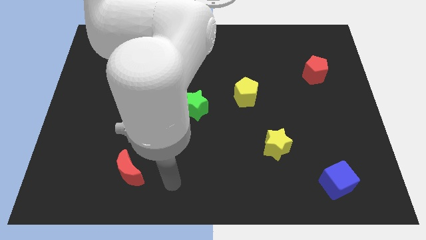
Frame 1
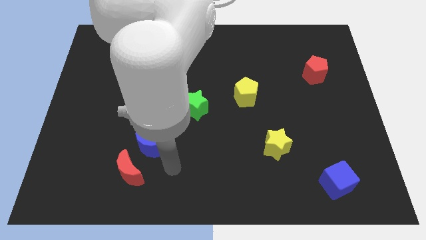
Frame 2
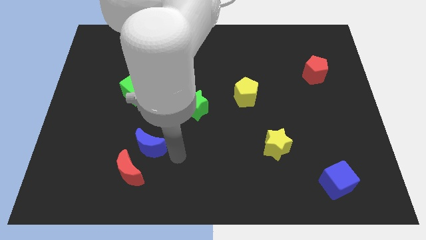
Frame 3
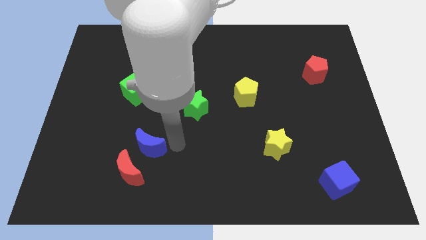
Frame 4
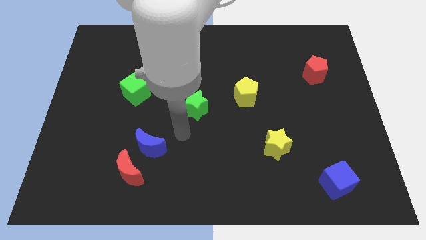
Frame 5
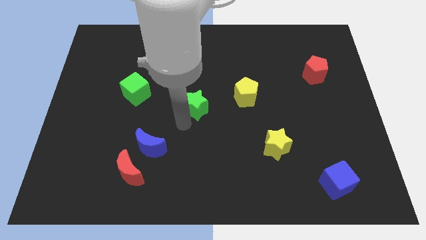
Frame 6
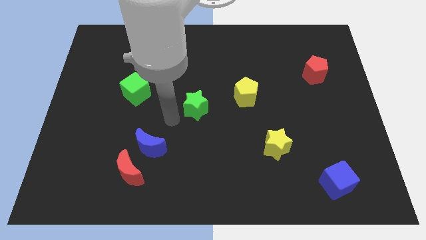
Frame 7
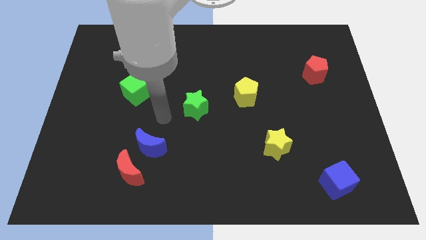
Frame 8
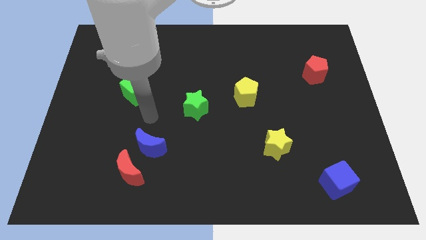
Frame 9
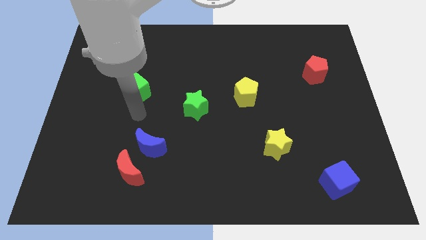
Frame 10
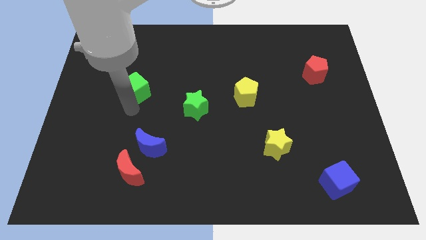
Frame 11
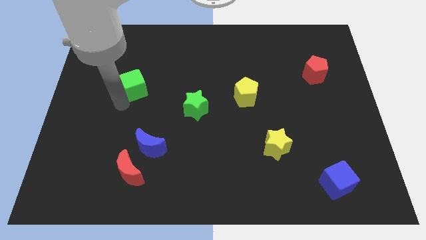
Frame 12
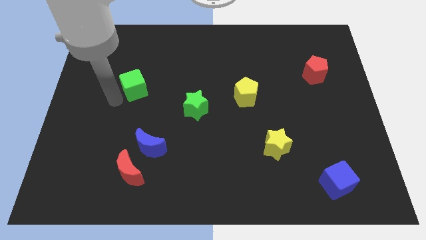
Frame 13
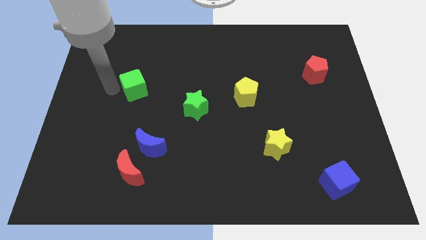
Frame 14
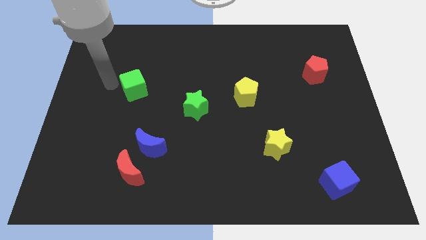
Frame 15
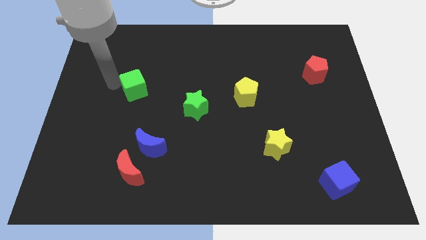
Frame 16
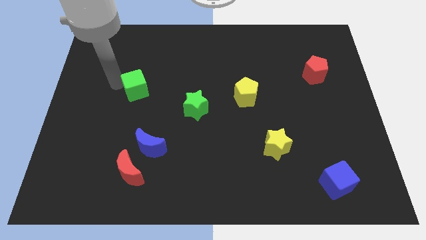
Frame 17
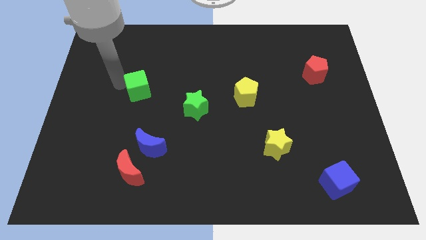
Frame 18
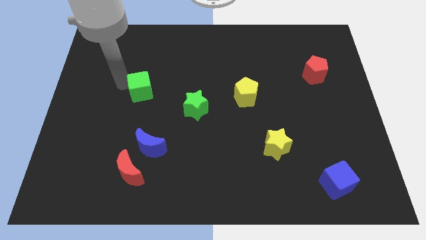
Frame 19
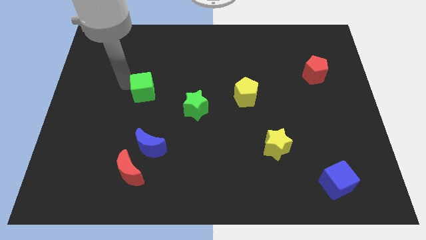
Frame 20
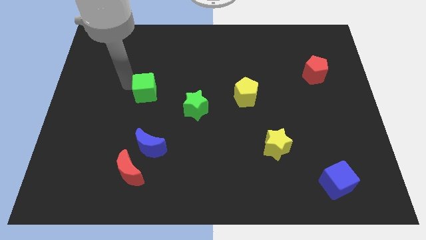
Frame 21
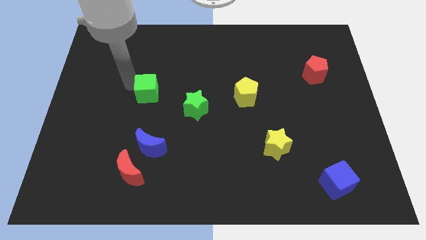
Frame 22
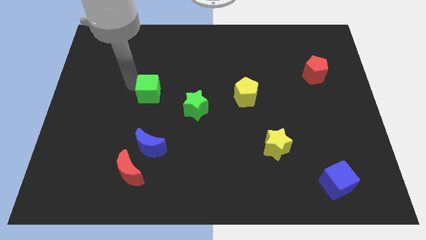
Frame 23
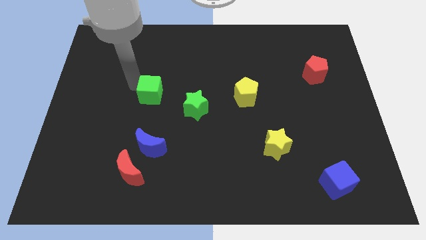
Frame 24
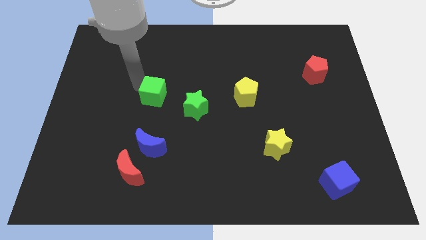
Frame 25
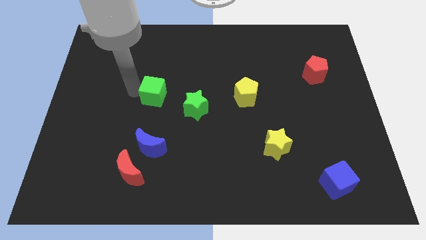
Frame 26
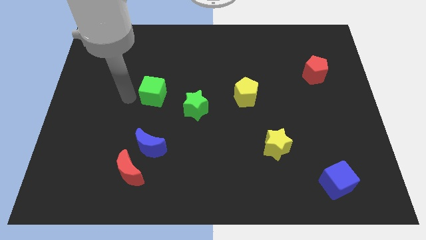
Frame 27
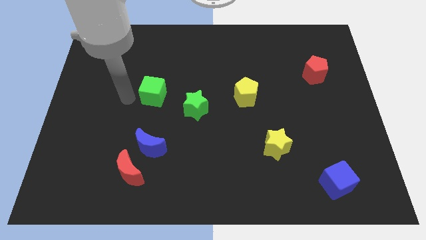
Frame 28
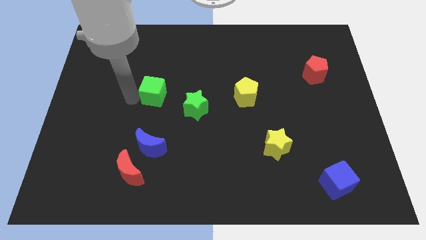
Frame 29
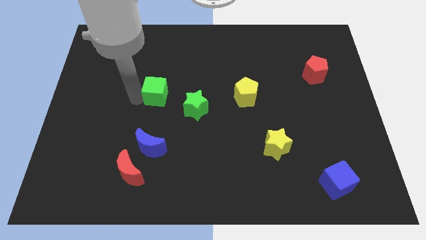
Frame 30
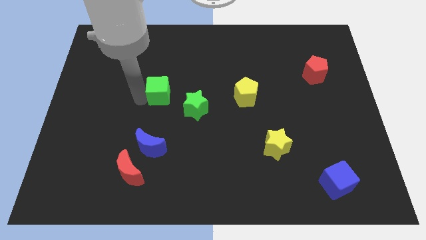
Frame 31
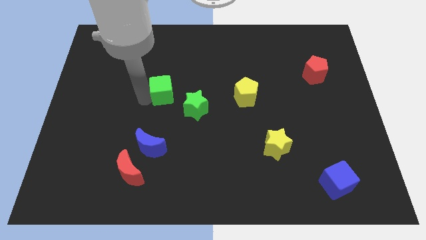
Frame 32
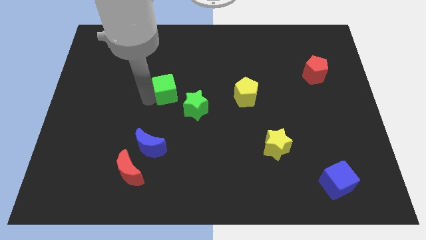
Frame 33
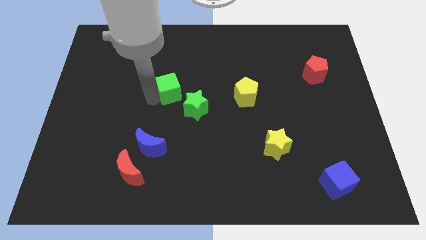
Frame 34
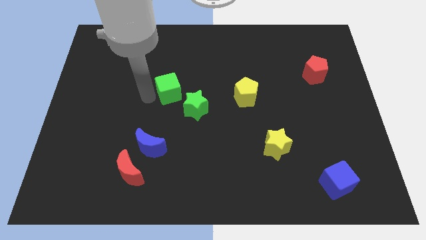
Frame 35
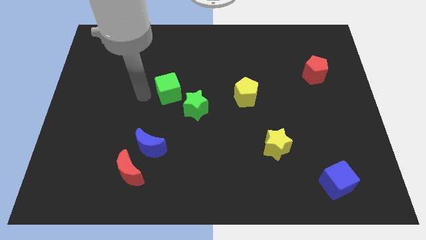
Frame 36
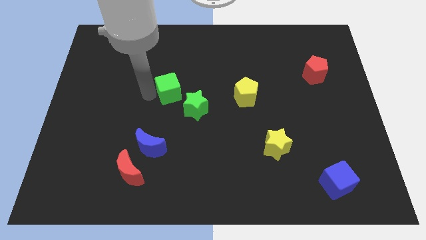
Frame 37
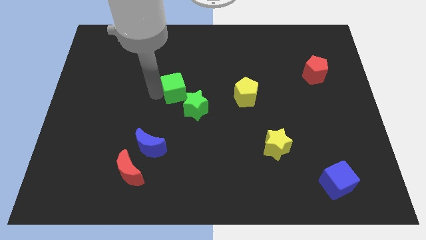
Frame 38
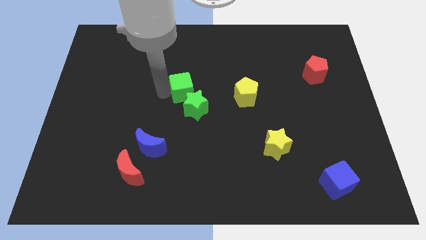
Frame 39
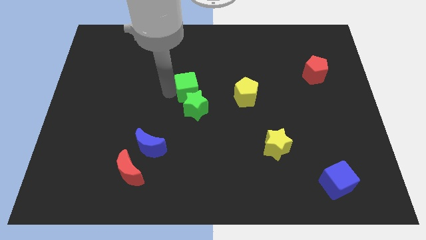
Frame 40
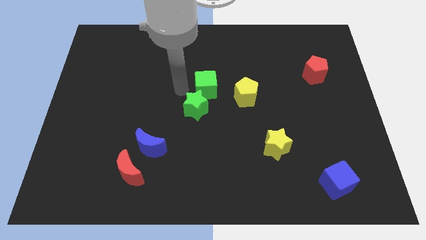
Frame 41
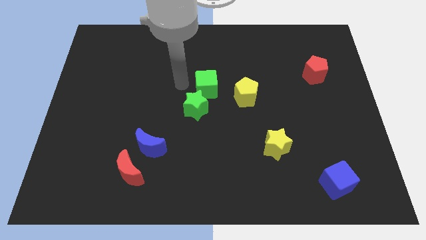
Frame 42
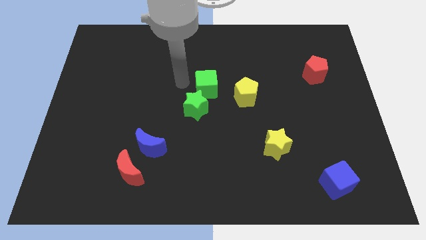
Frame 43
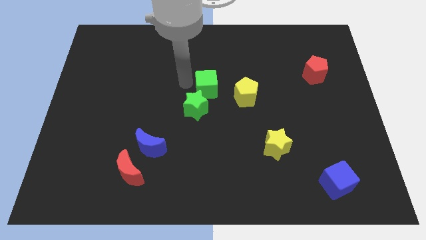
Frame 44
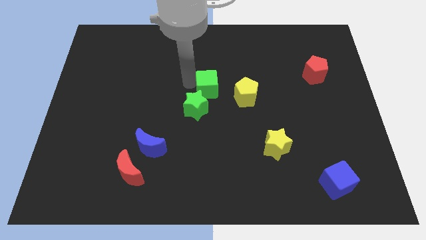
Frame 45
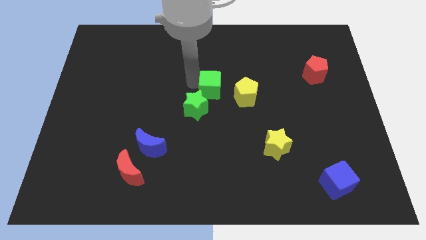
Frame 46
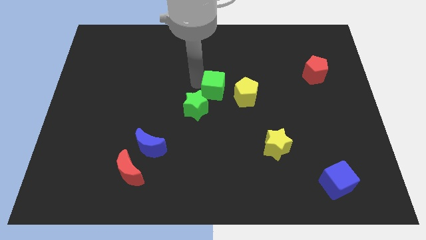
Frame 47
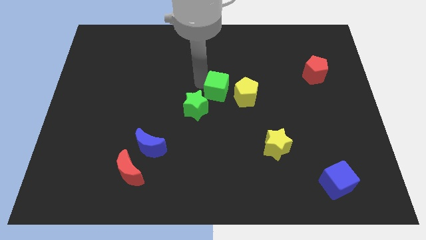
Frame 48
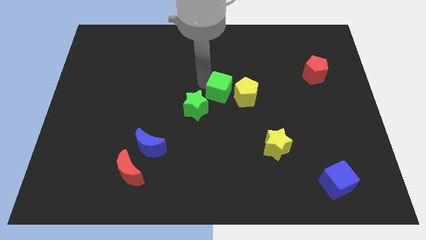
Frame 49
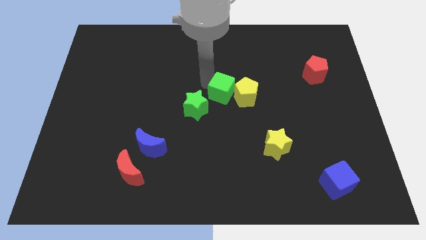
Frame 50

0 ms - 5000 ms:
move the green cube next to the yellow pentagon

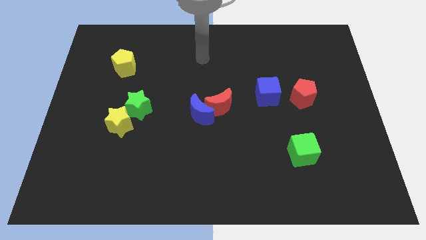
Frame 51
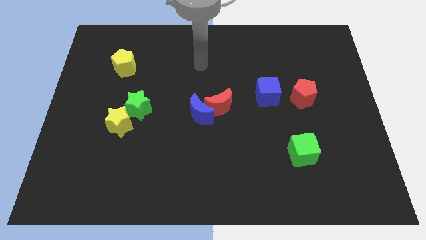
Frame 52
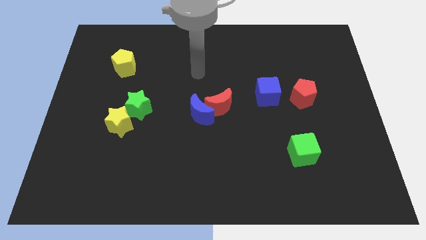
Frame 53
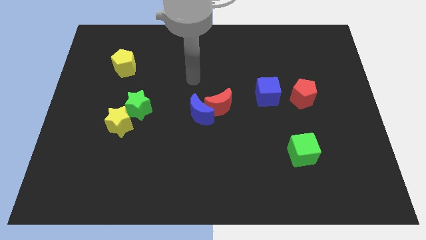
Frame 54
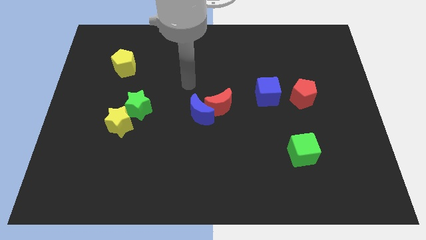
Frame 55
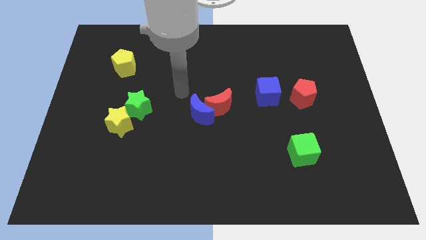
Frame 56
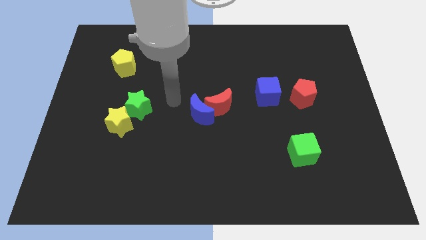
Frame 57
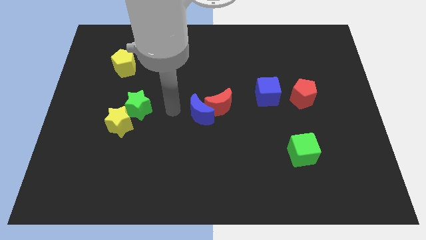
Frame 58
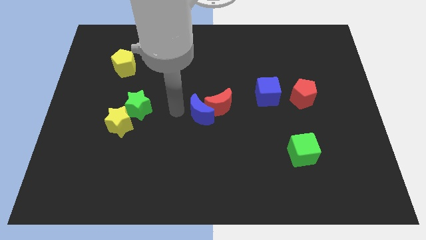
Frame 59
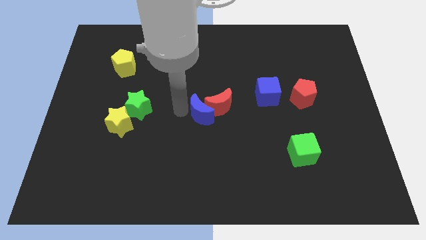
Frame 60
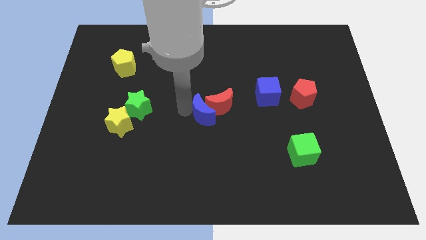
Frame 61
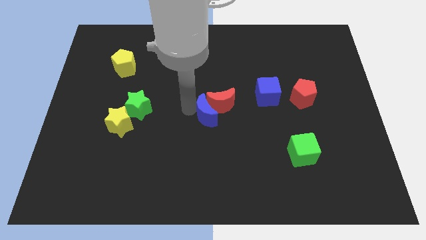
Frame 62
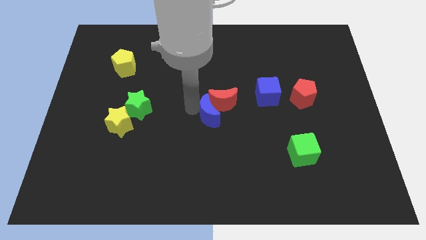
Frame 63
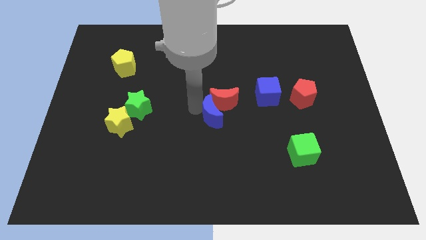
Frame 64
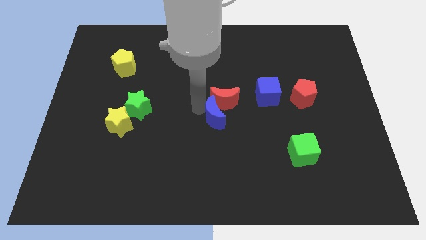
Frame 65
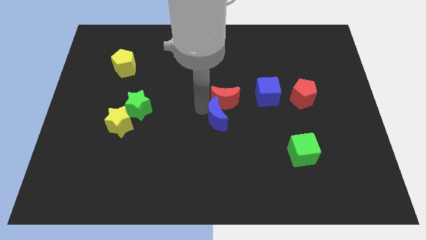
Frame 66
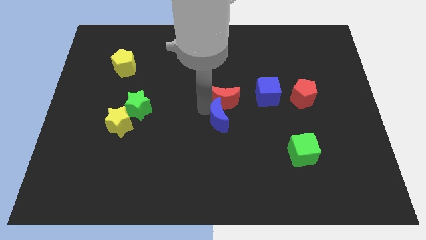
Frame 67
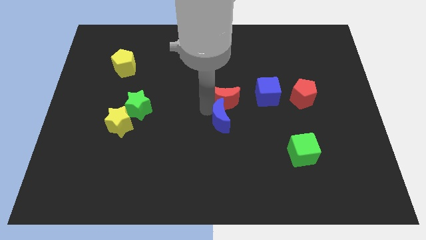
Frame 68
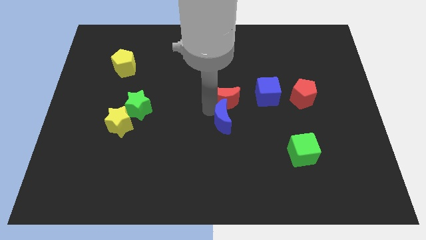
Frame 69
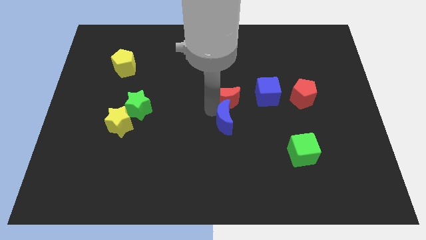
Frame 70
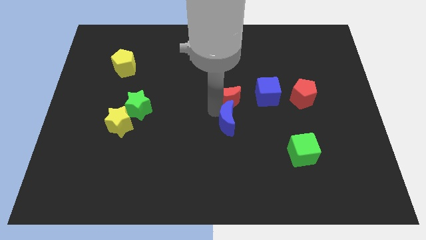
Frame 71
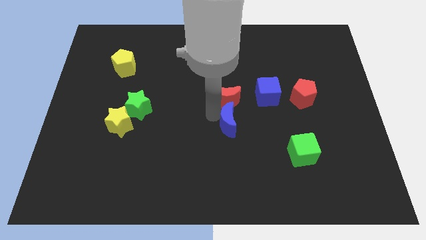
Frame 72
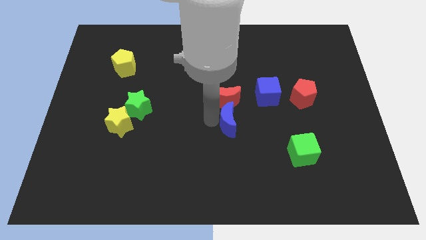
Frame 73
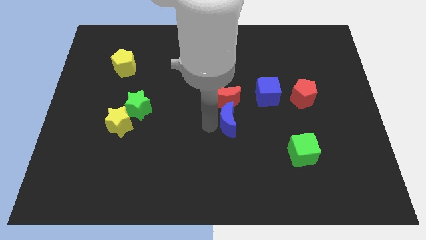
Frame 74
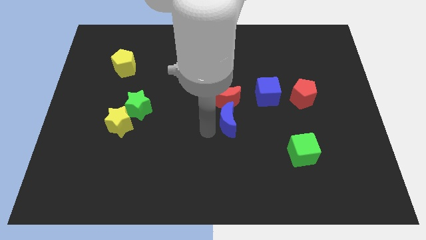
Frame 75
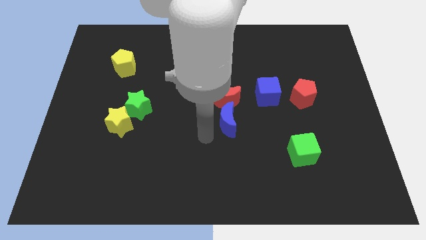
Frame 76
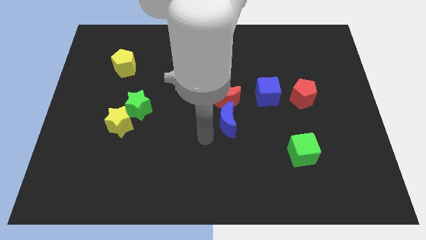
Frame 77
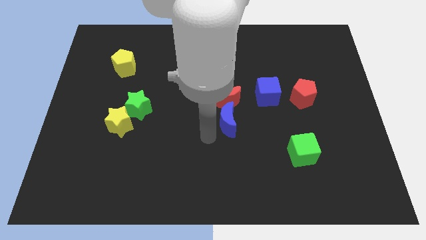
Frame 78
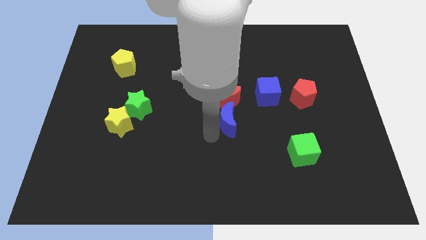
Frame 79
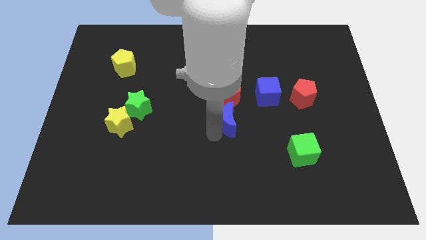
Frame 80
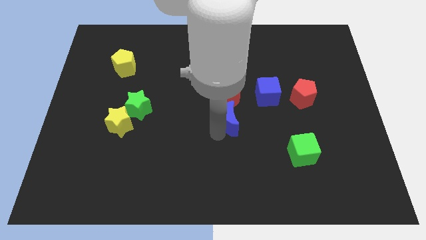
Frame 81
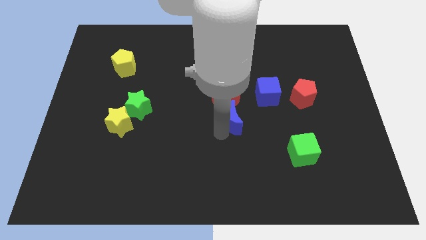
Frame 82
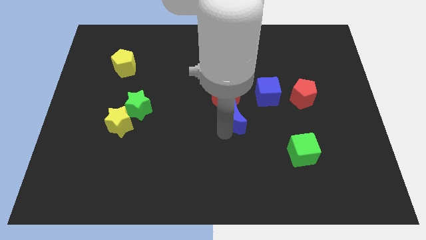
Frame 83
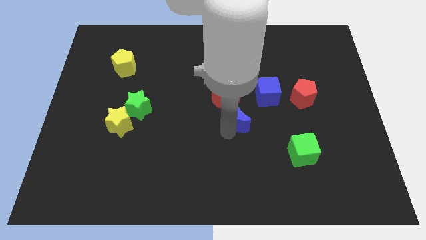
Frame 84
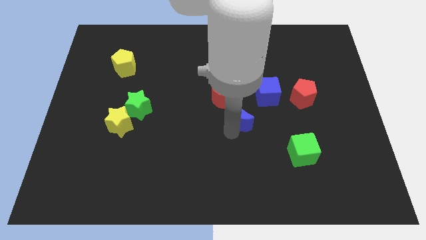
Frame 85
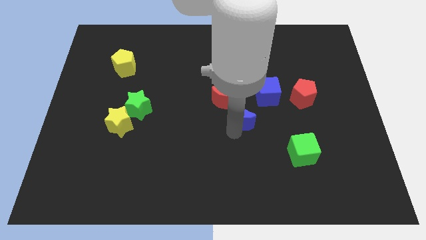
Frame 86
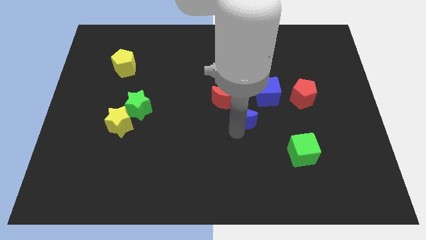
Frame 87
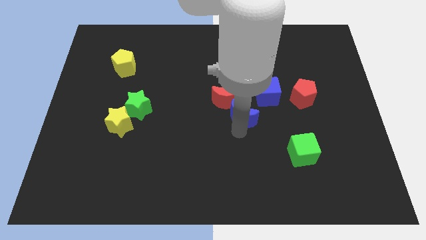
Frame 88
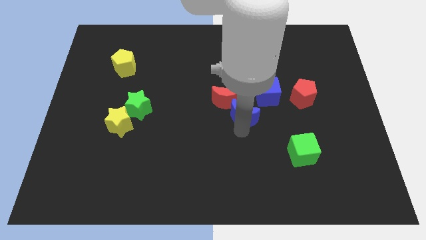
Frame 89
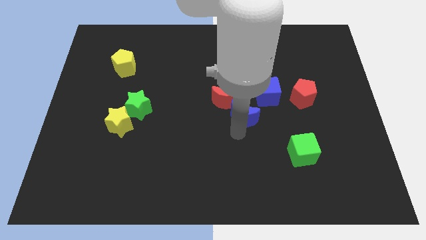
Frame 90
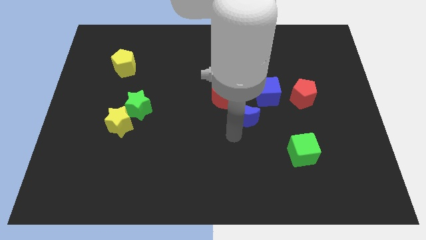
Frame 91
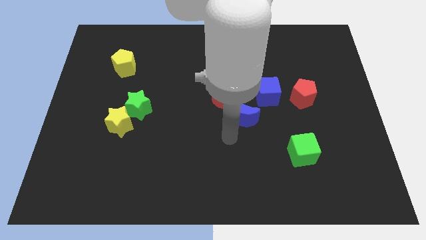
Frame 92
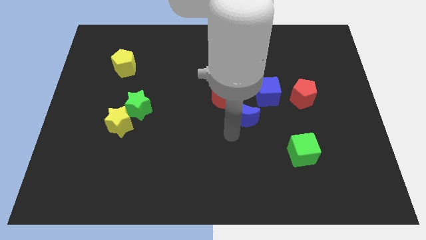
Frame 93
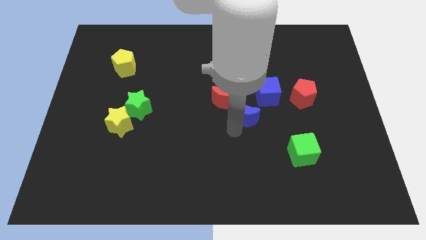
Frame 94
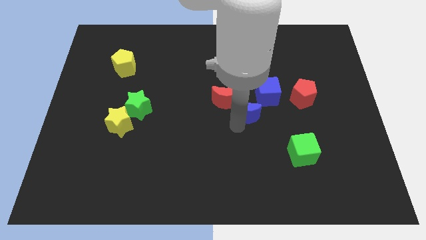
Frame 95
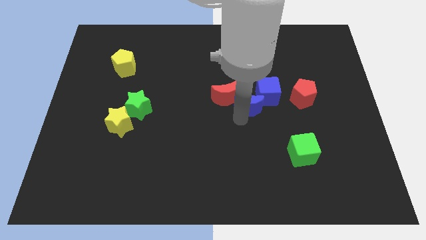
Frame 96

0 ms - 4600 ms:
put the blue moon next to the blue cube
